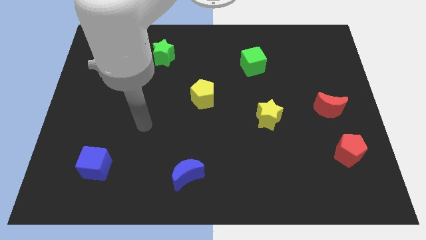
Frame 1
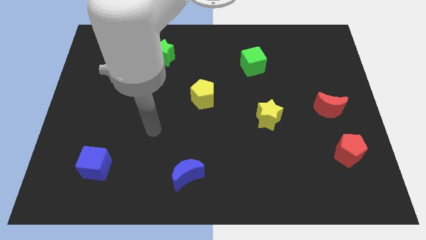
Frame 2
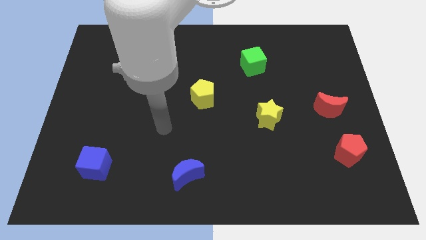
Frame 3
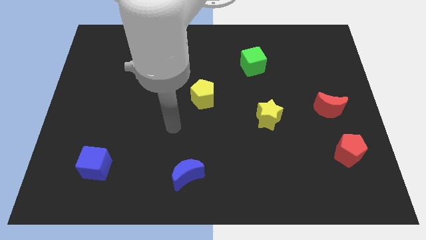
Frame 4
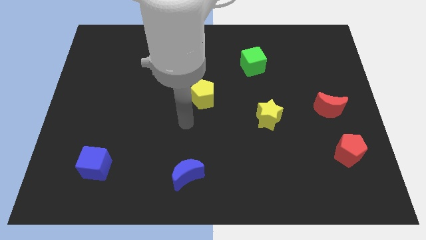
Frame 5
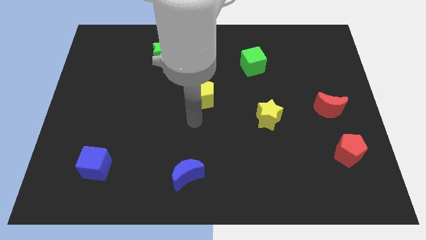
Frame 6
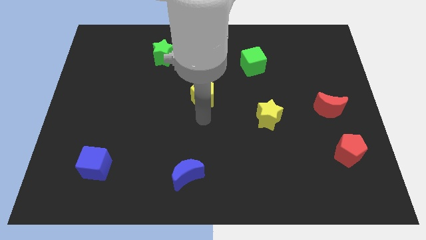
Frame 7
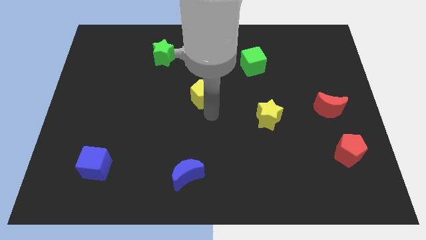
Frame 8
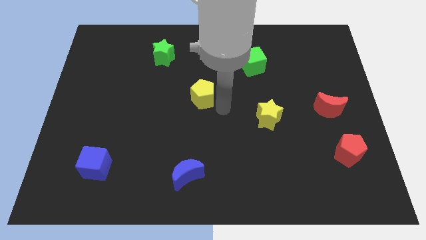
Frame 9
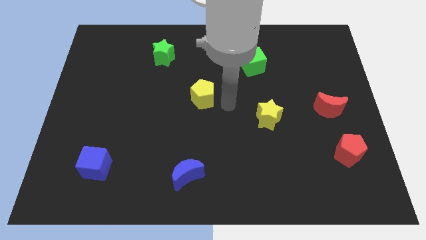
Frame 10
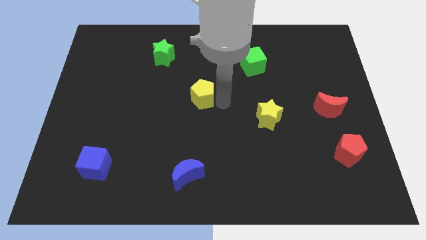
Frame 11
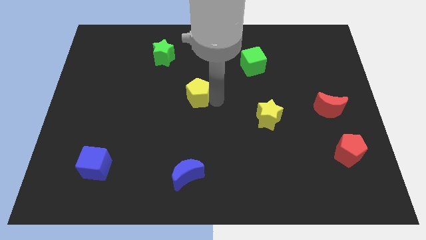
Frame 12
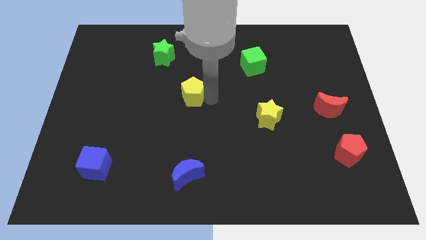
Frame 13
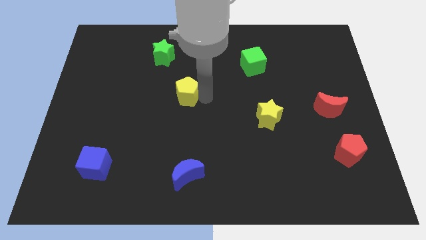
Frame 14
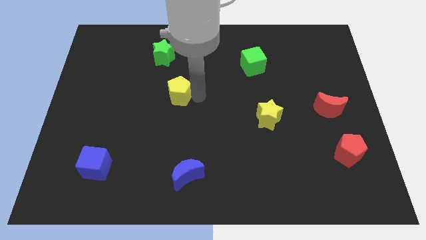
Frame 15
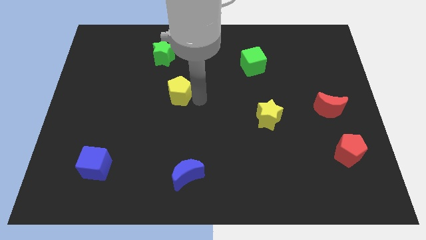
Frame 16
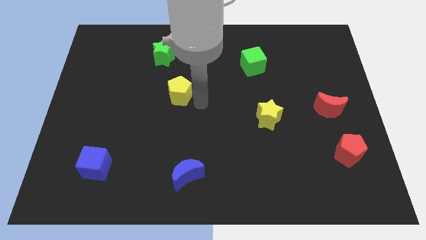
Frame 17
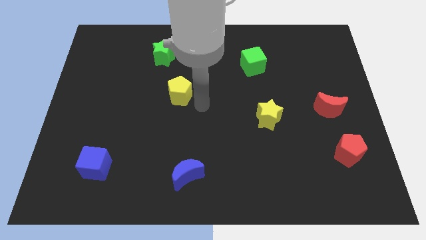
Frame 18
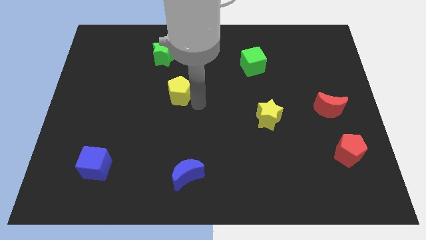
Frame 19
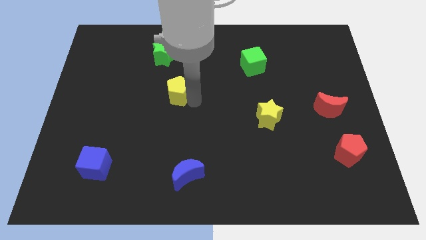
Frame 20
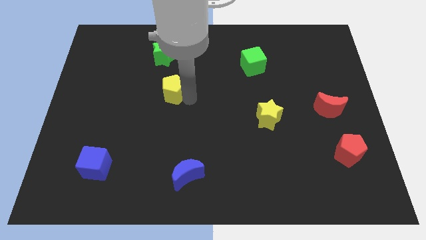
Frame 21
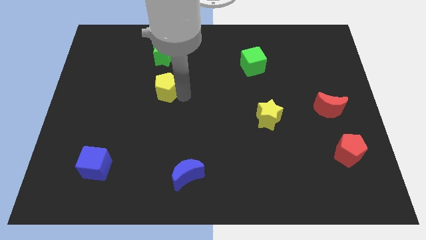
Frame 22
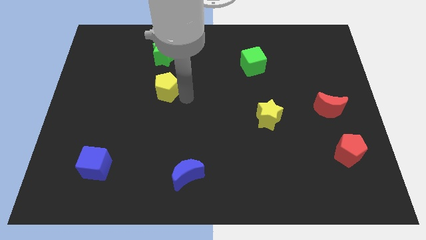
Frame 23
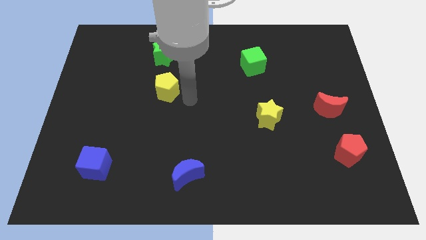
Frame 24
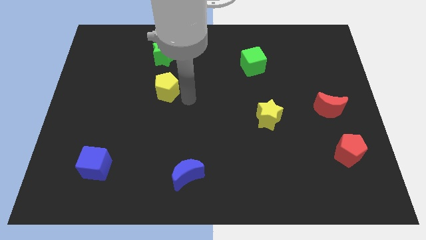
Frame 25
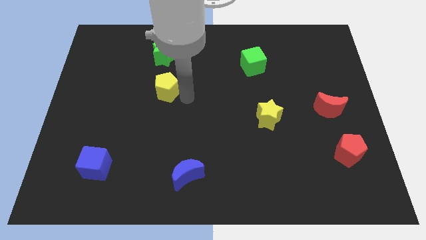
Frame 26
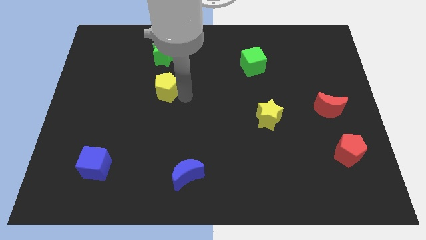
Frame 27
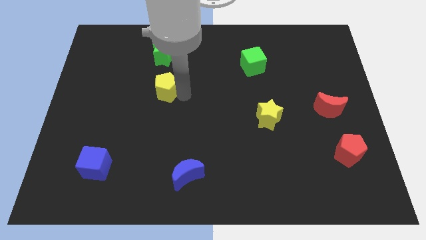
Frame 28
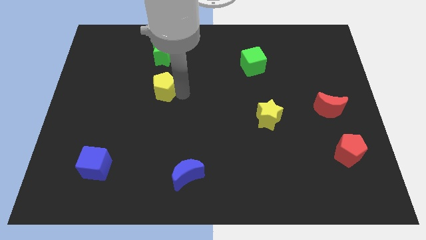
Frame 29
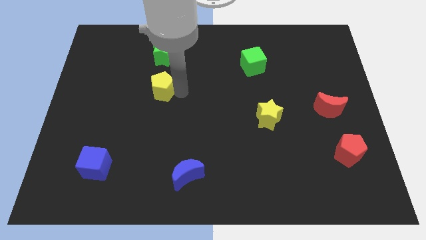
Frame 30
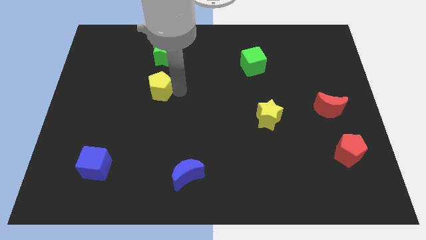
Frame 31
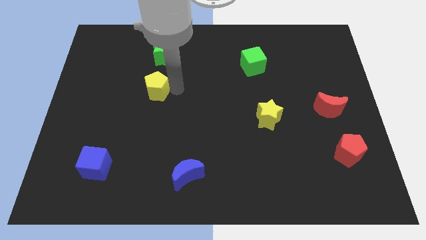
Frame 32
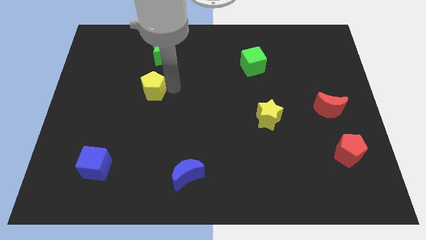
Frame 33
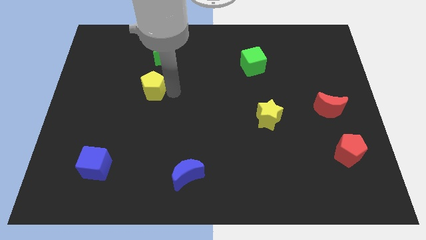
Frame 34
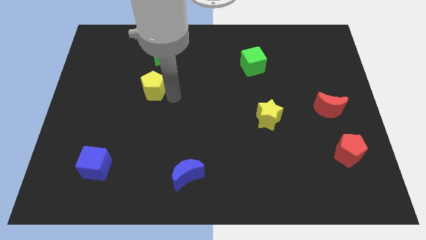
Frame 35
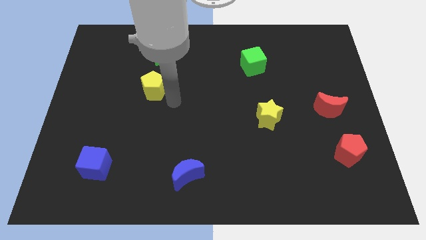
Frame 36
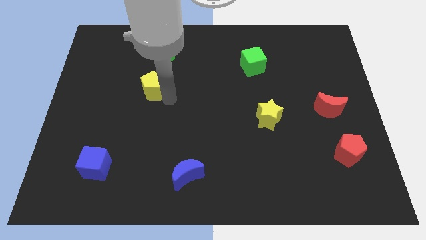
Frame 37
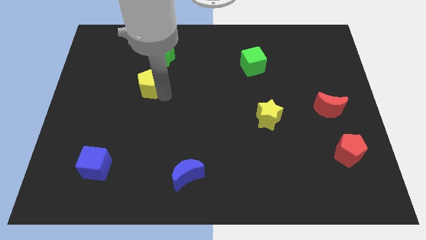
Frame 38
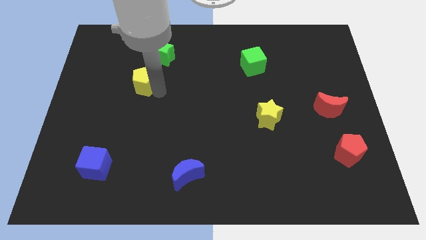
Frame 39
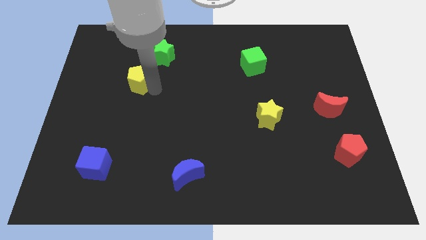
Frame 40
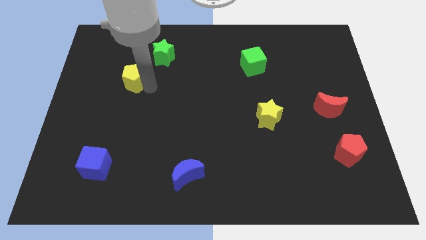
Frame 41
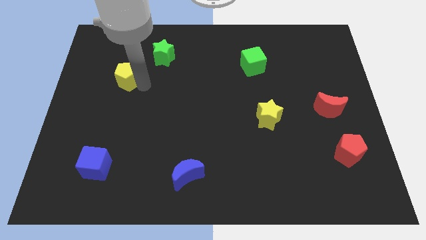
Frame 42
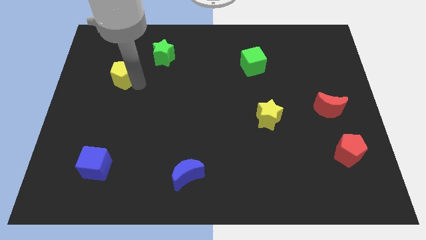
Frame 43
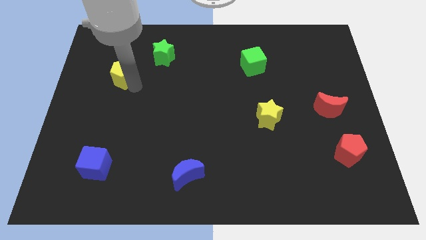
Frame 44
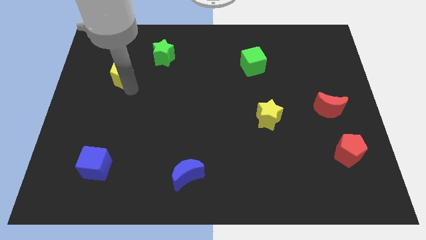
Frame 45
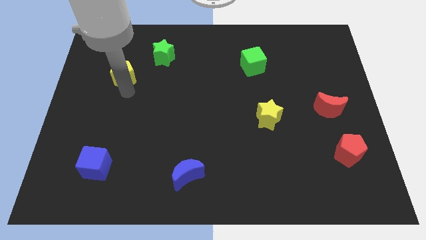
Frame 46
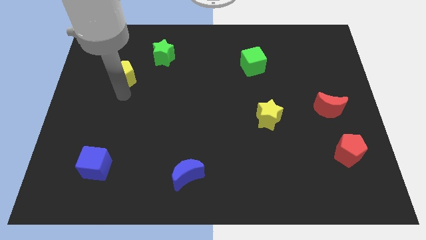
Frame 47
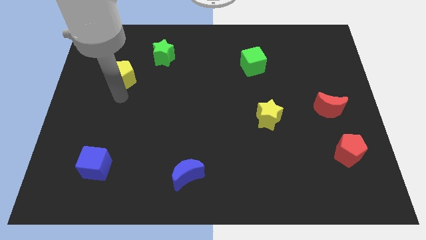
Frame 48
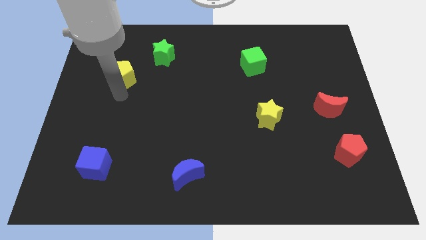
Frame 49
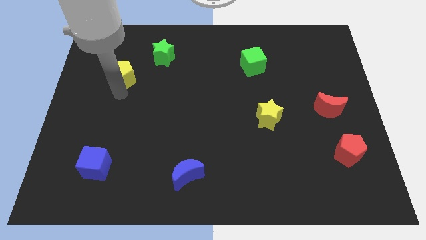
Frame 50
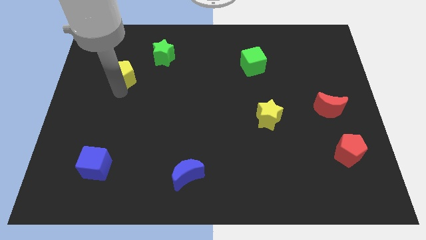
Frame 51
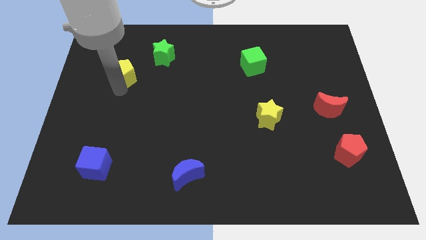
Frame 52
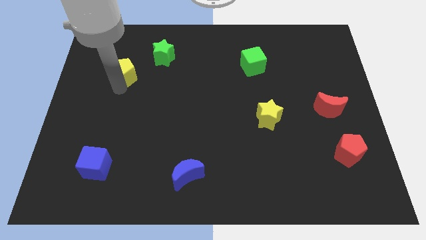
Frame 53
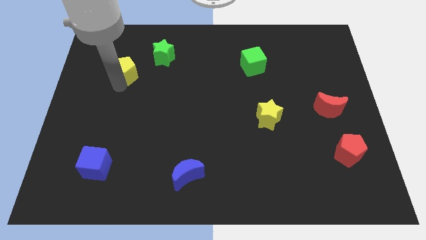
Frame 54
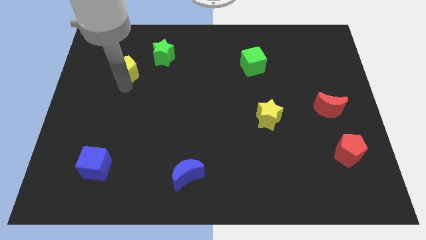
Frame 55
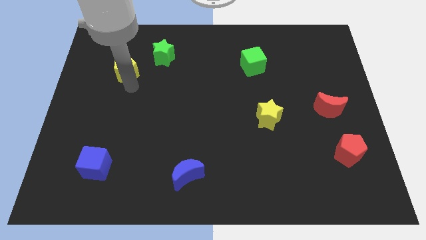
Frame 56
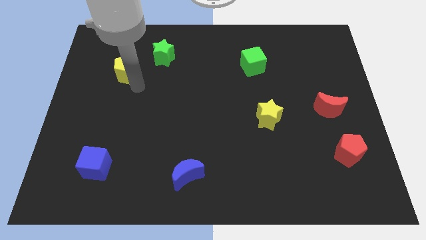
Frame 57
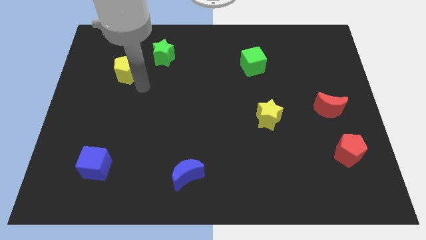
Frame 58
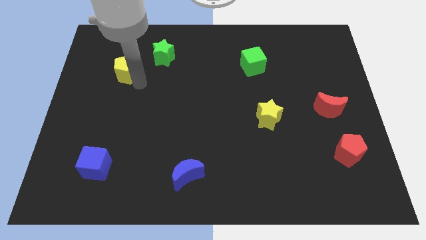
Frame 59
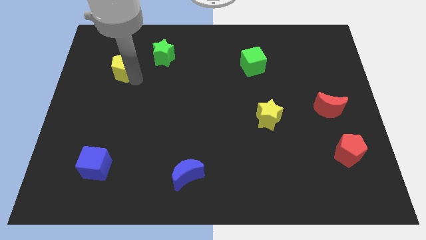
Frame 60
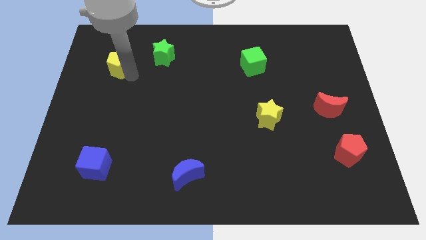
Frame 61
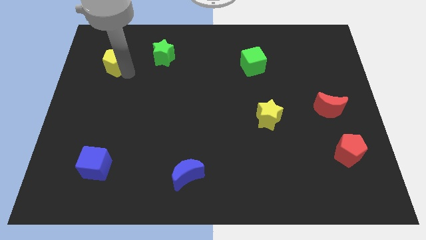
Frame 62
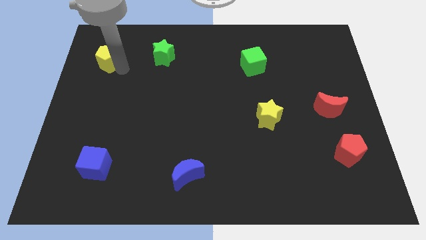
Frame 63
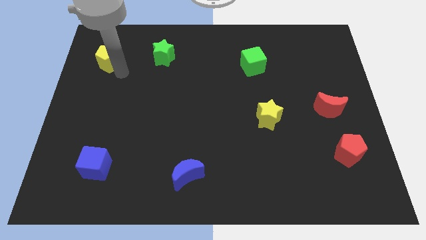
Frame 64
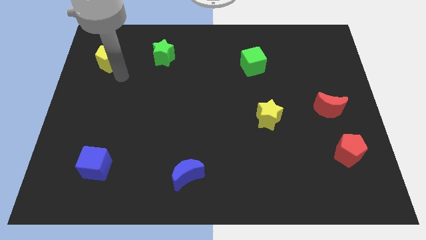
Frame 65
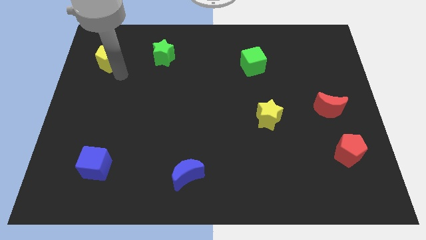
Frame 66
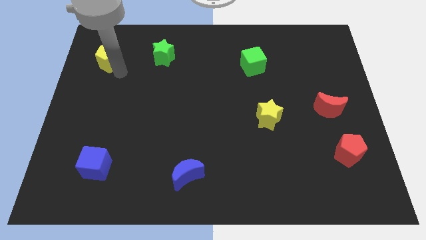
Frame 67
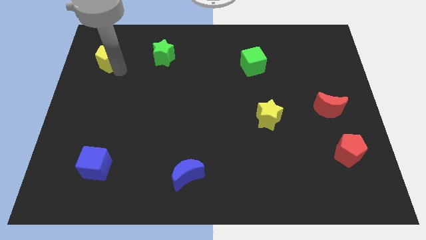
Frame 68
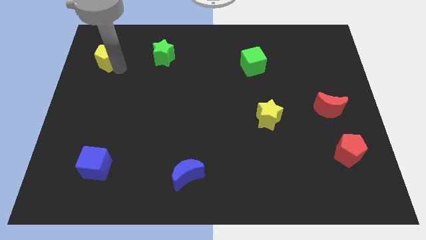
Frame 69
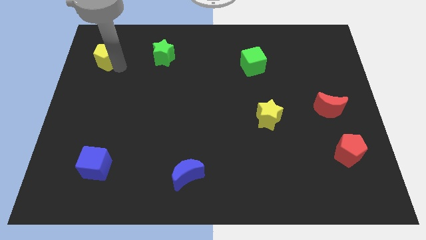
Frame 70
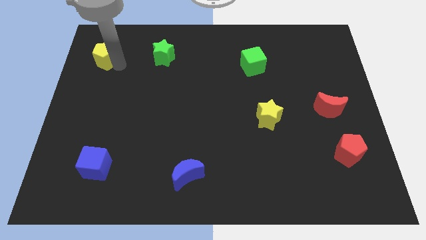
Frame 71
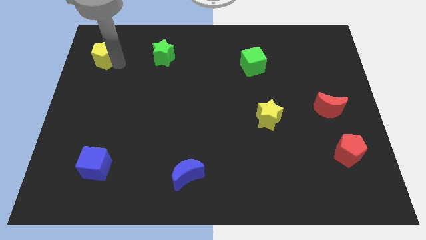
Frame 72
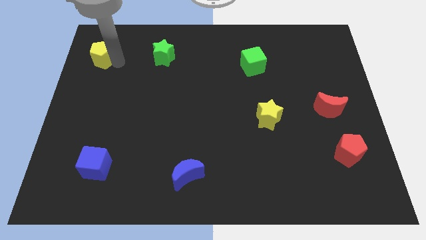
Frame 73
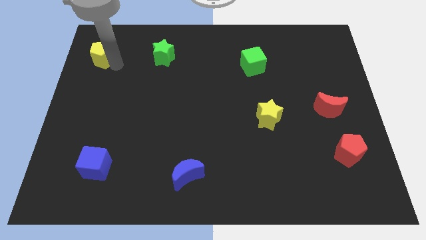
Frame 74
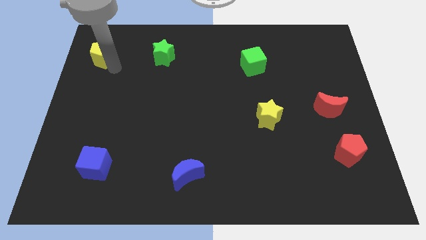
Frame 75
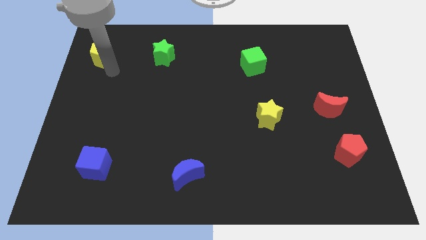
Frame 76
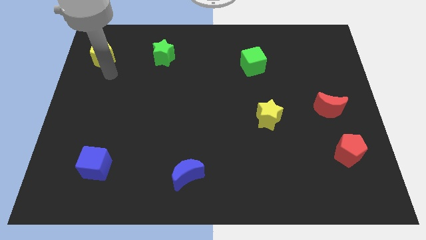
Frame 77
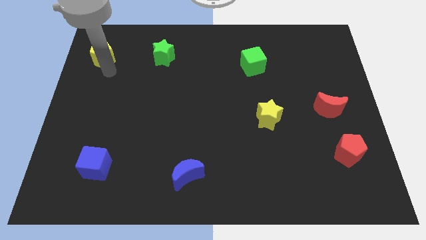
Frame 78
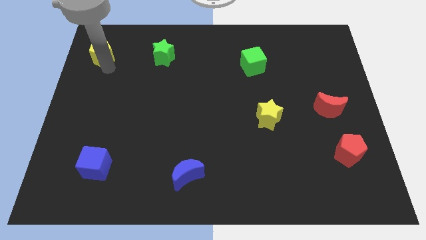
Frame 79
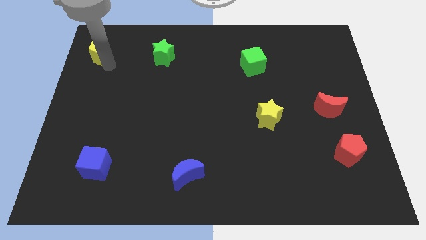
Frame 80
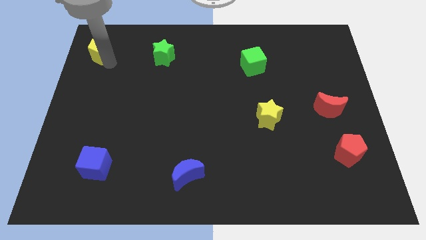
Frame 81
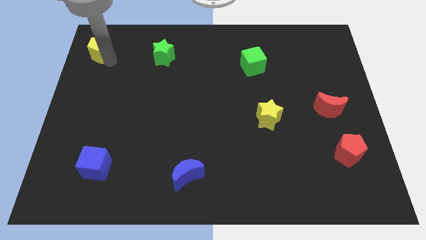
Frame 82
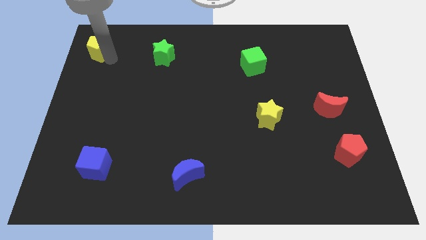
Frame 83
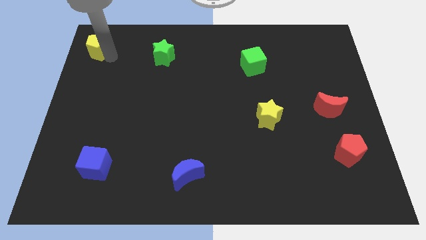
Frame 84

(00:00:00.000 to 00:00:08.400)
move the yellow pentagon to the upper left corner
